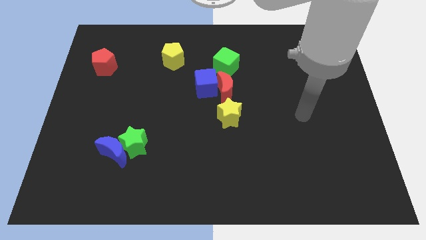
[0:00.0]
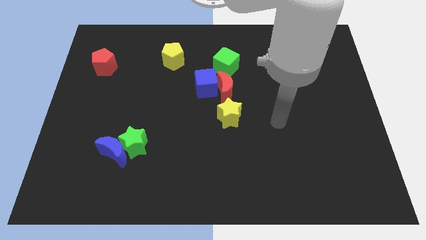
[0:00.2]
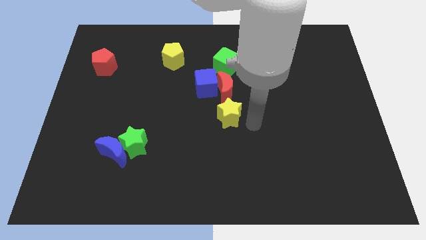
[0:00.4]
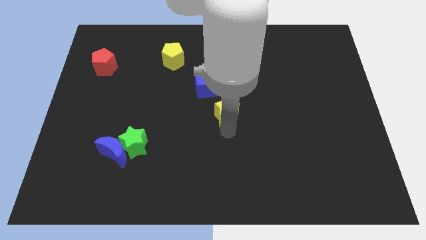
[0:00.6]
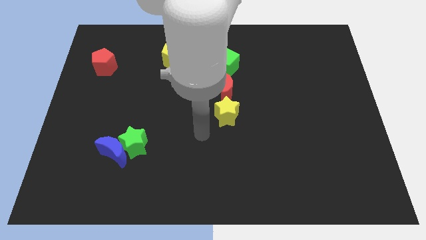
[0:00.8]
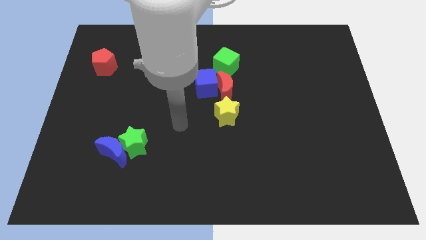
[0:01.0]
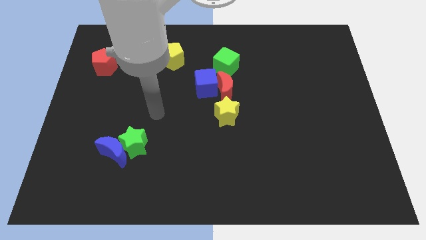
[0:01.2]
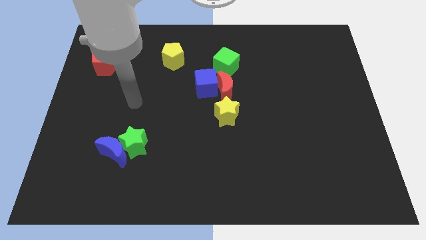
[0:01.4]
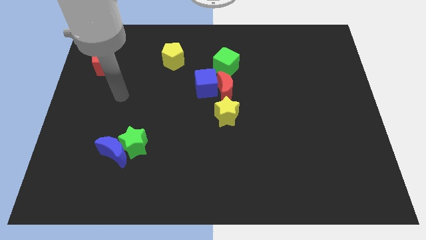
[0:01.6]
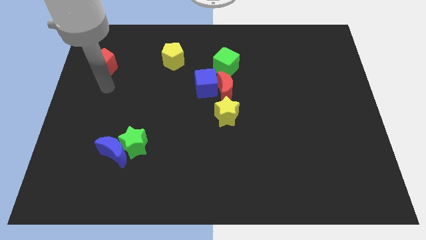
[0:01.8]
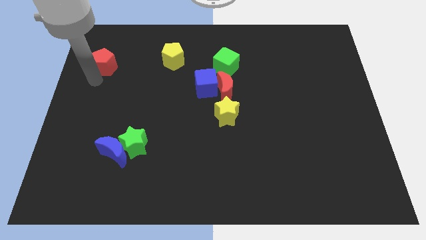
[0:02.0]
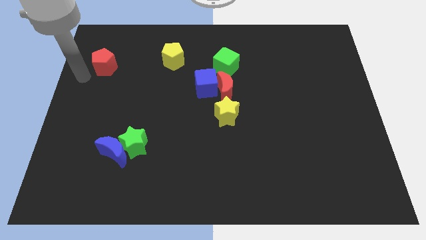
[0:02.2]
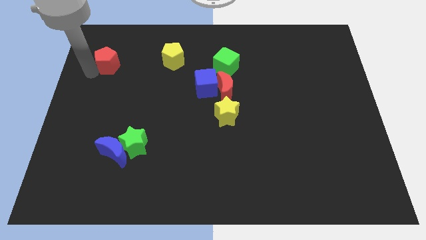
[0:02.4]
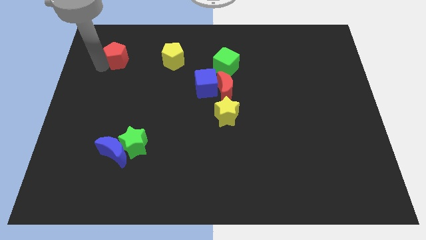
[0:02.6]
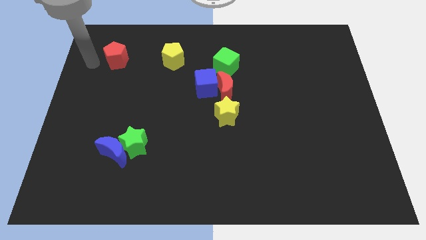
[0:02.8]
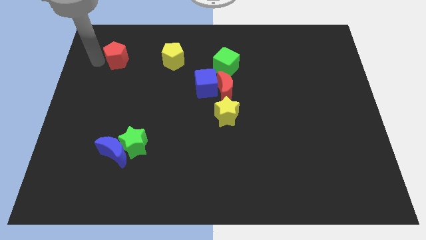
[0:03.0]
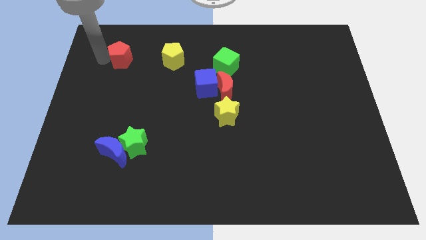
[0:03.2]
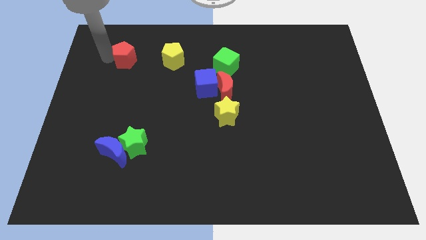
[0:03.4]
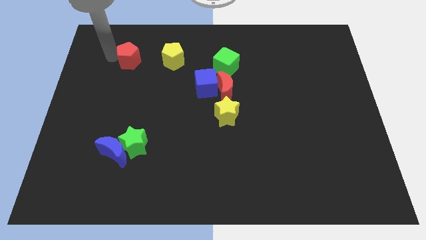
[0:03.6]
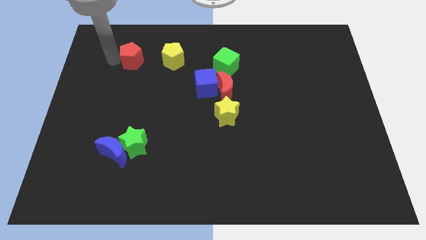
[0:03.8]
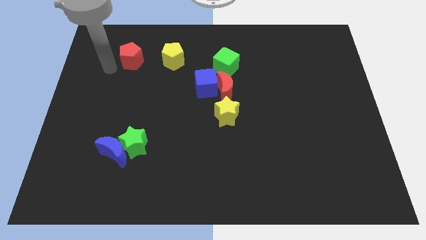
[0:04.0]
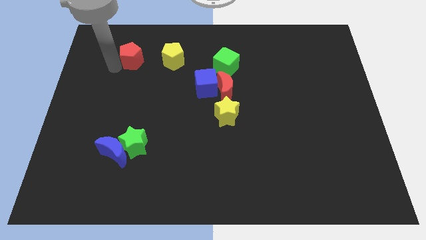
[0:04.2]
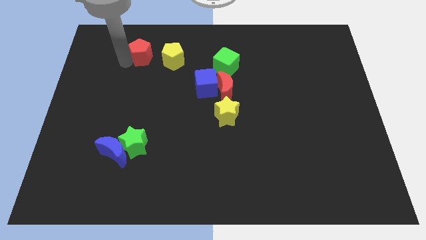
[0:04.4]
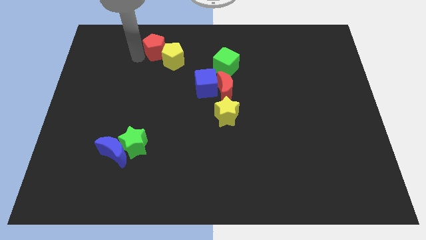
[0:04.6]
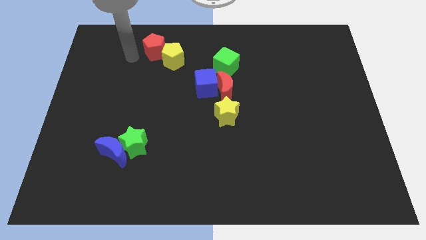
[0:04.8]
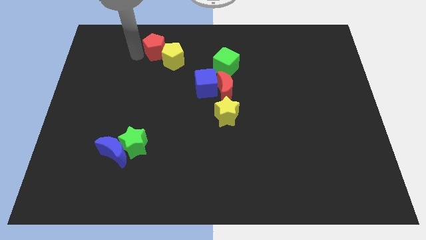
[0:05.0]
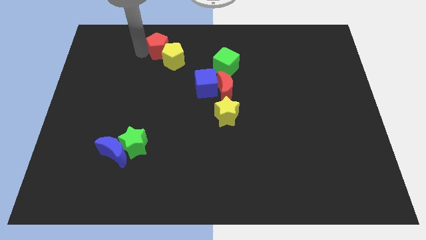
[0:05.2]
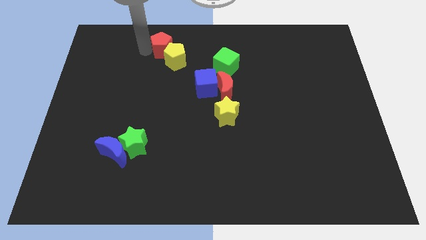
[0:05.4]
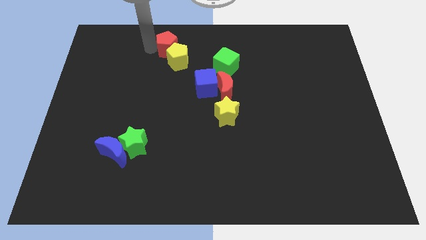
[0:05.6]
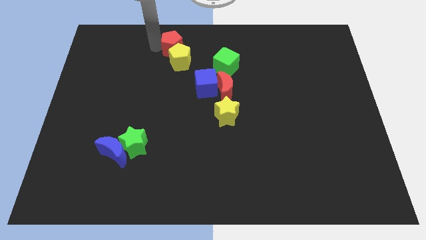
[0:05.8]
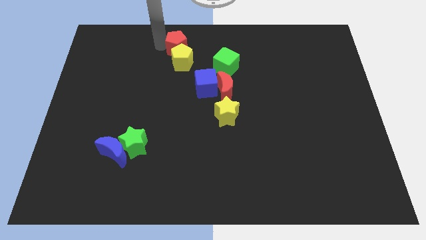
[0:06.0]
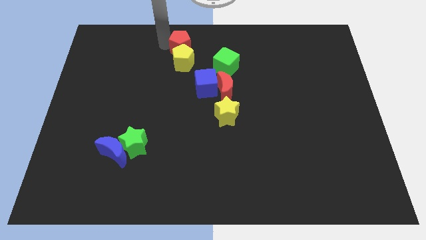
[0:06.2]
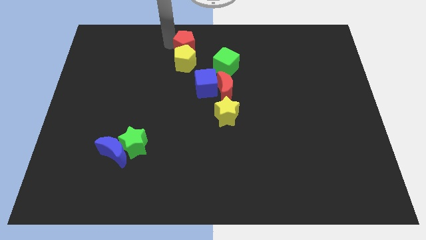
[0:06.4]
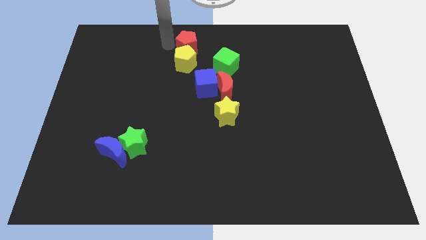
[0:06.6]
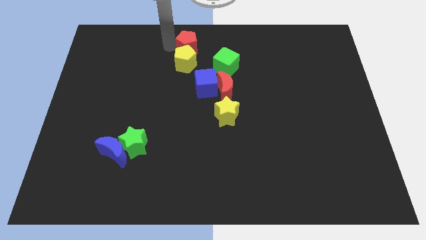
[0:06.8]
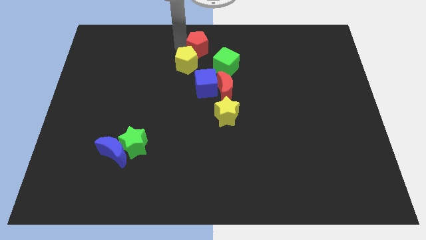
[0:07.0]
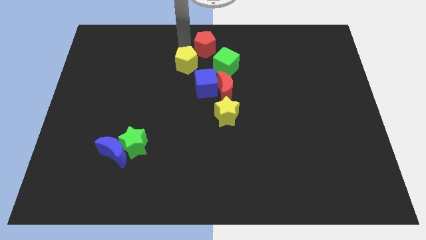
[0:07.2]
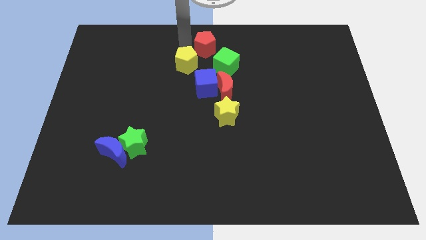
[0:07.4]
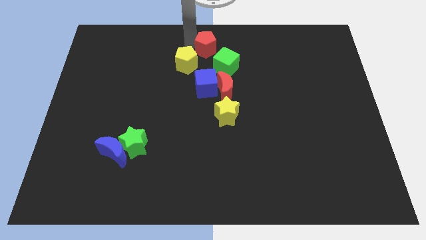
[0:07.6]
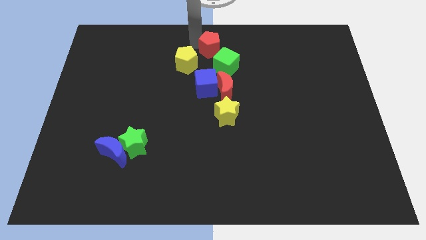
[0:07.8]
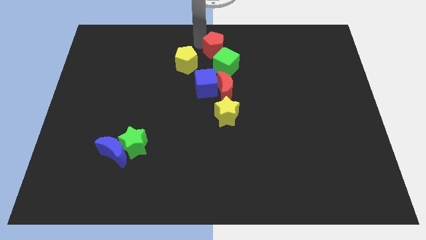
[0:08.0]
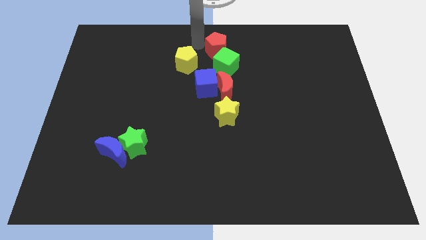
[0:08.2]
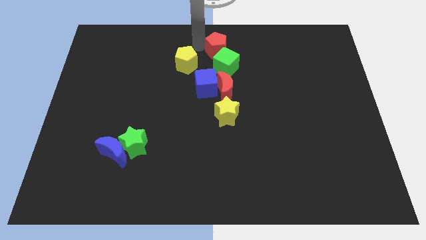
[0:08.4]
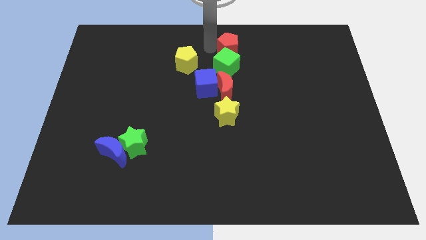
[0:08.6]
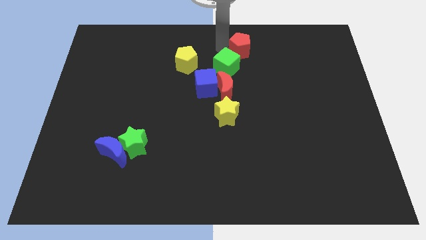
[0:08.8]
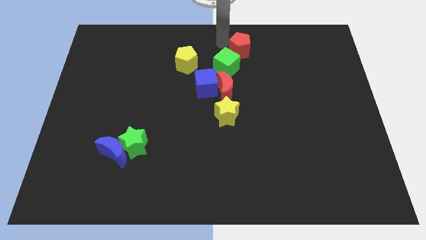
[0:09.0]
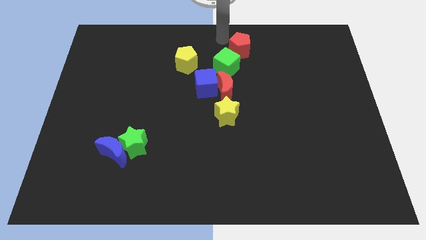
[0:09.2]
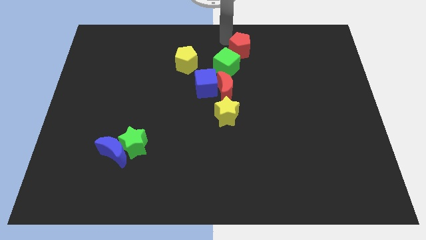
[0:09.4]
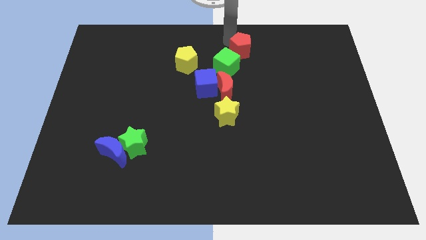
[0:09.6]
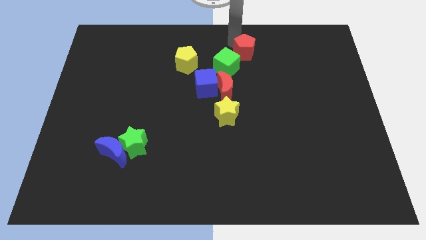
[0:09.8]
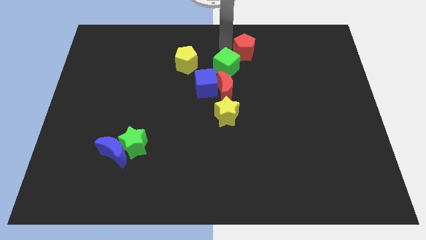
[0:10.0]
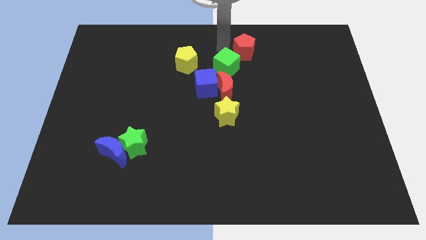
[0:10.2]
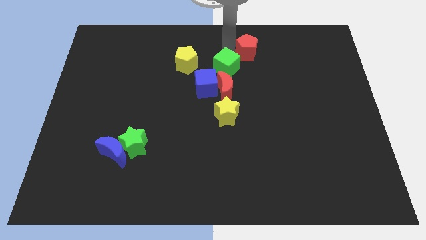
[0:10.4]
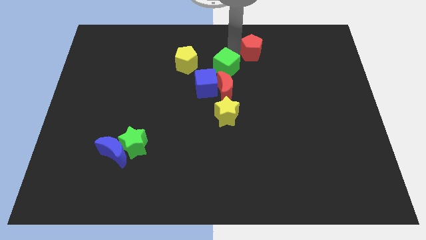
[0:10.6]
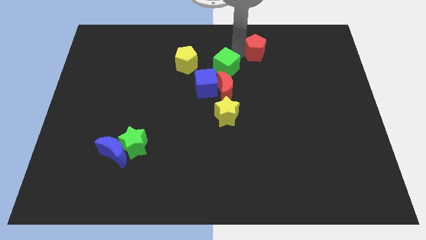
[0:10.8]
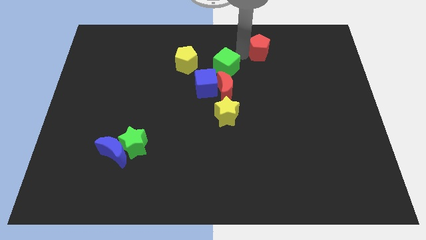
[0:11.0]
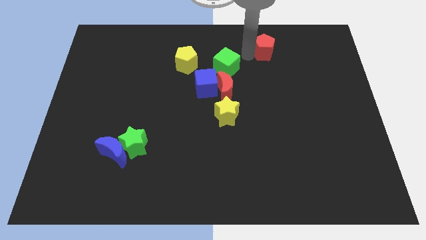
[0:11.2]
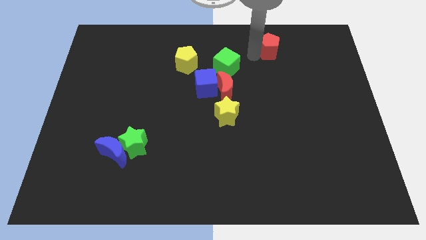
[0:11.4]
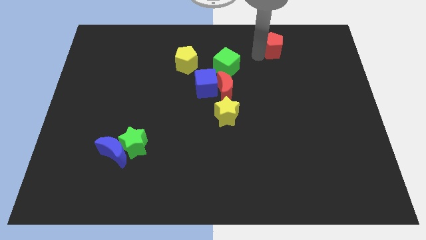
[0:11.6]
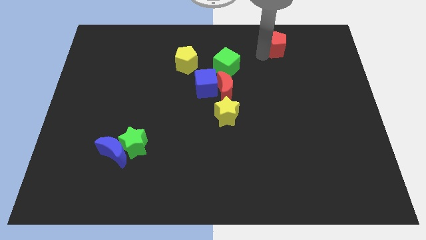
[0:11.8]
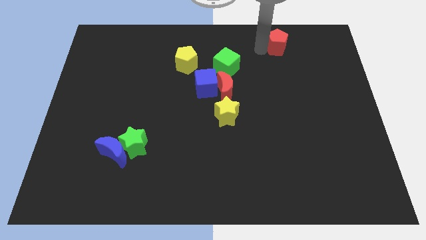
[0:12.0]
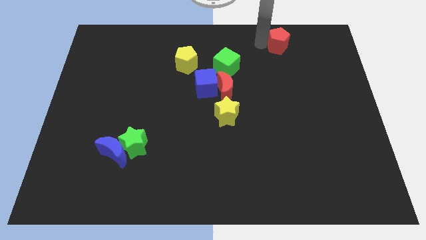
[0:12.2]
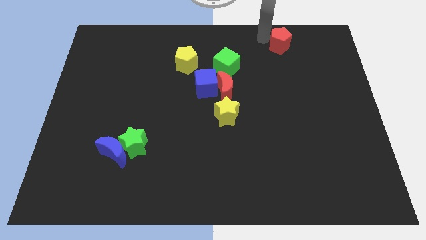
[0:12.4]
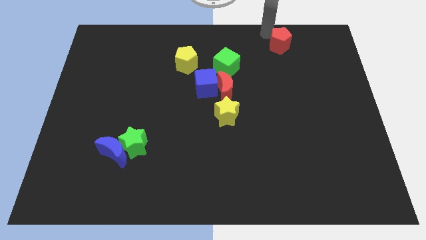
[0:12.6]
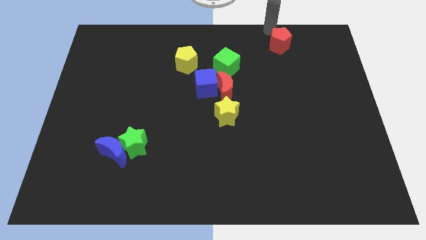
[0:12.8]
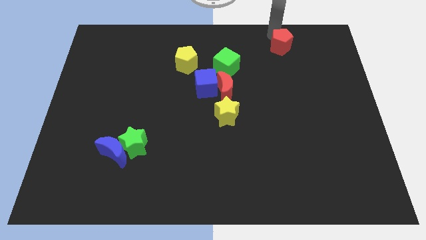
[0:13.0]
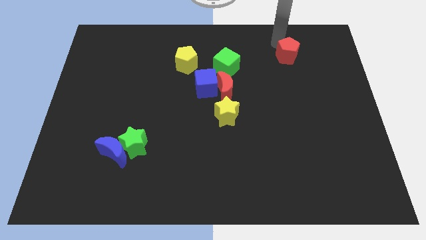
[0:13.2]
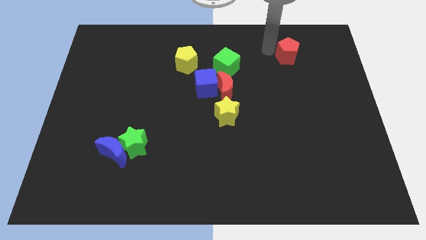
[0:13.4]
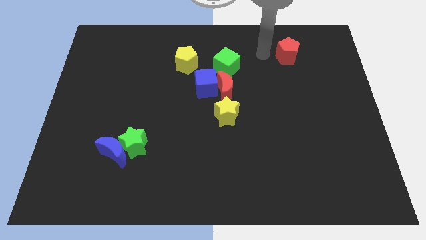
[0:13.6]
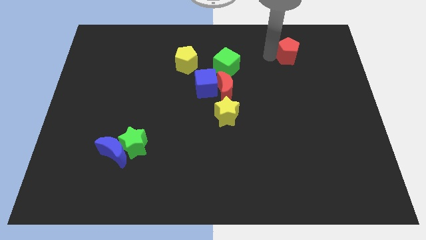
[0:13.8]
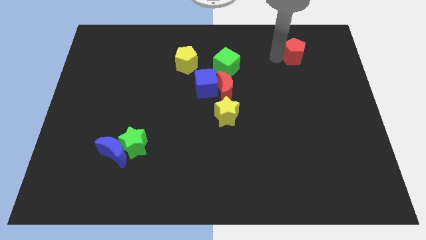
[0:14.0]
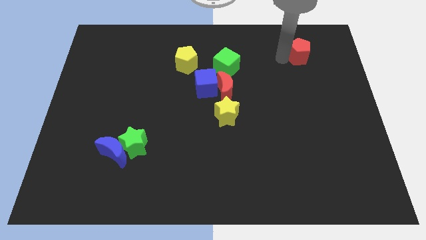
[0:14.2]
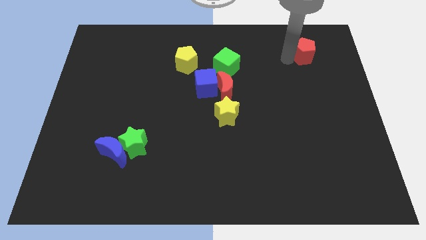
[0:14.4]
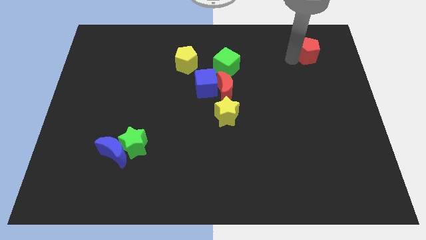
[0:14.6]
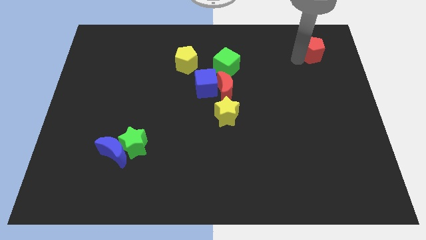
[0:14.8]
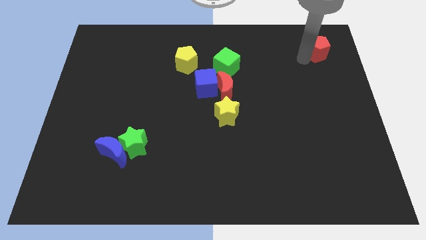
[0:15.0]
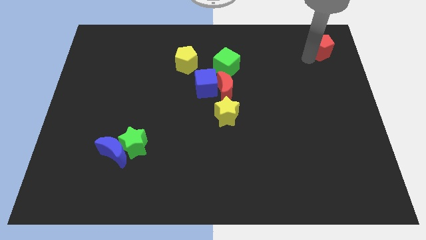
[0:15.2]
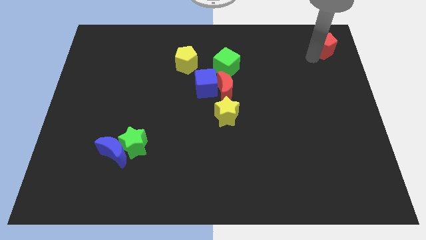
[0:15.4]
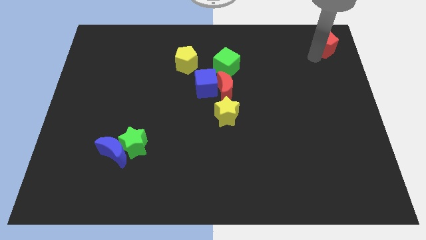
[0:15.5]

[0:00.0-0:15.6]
put the red pentagon to the top right corner
